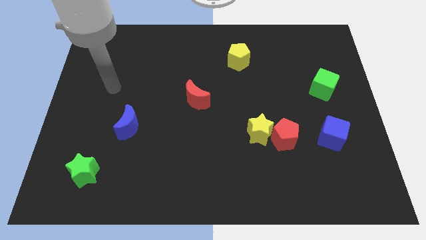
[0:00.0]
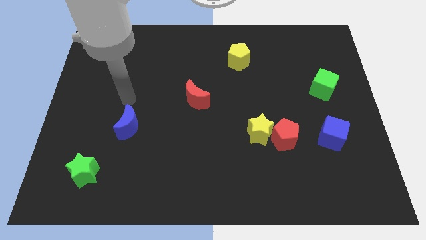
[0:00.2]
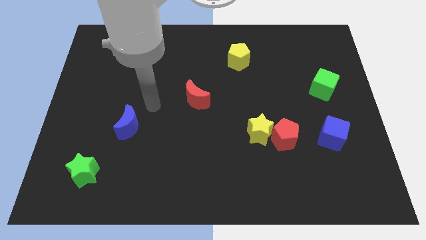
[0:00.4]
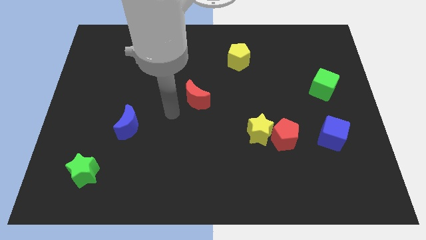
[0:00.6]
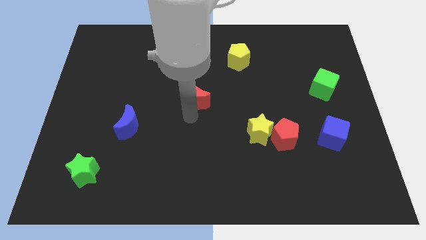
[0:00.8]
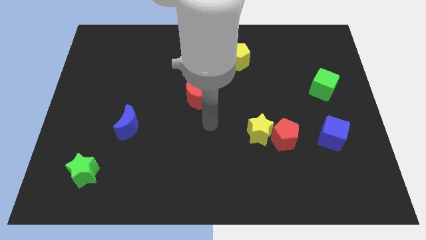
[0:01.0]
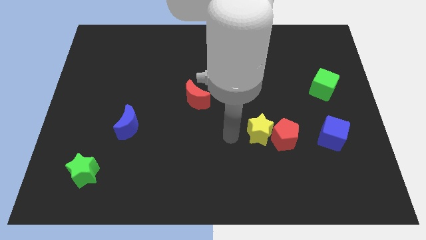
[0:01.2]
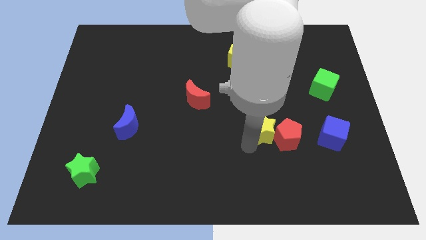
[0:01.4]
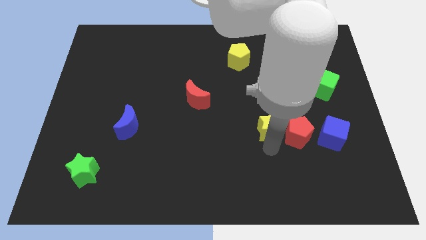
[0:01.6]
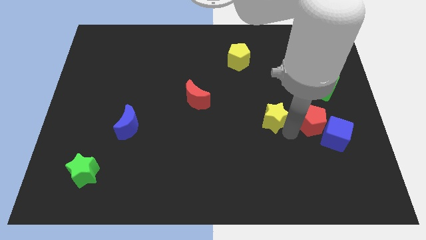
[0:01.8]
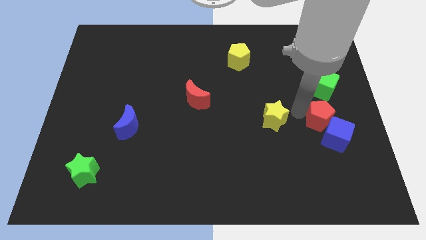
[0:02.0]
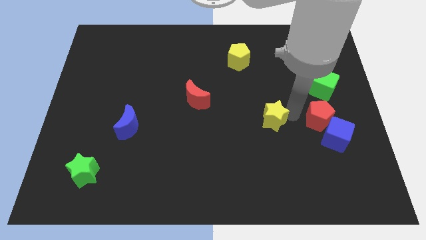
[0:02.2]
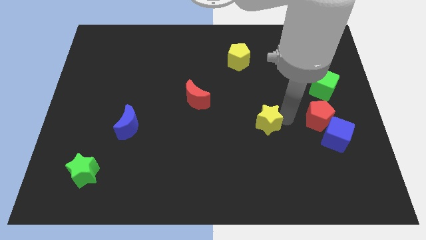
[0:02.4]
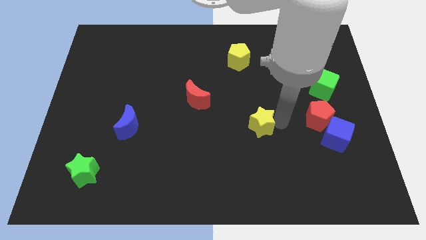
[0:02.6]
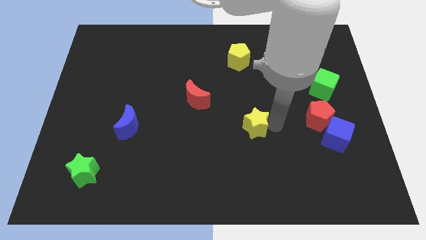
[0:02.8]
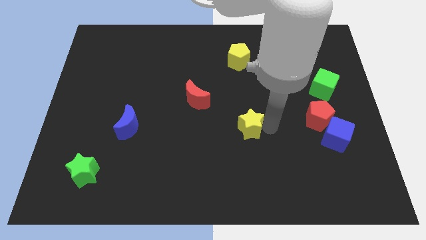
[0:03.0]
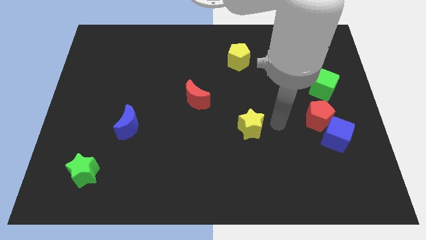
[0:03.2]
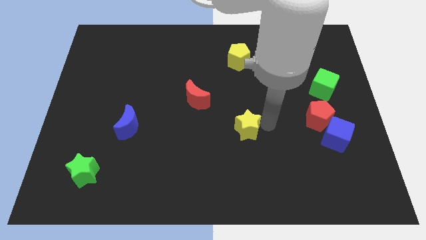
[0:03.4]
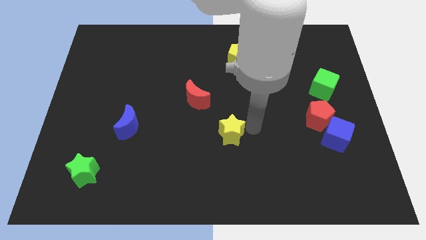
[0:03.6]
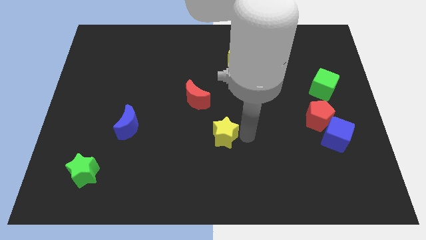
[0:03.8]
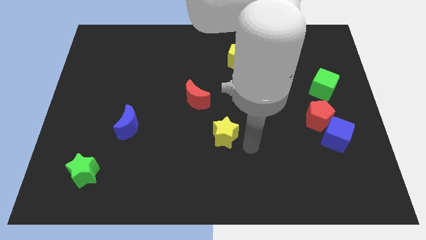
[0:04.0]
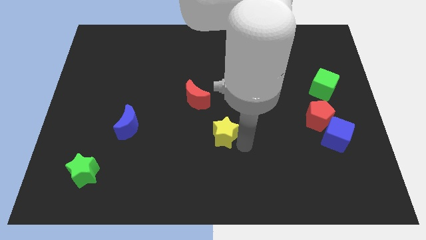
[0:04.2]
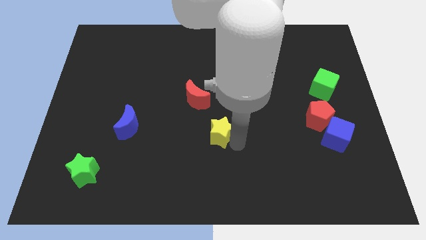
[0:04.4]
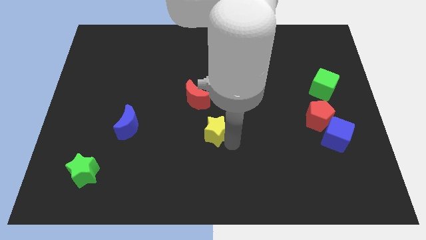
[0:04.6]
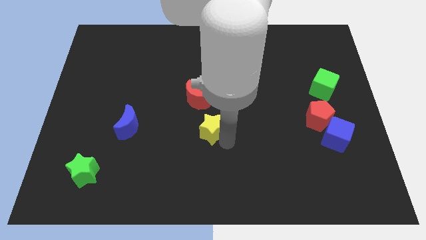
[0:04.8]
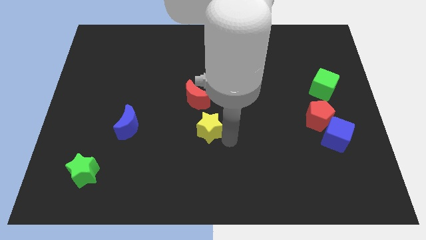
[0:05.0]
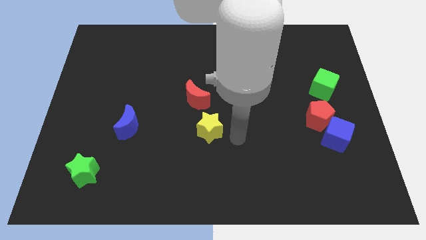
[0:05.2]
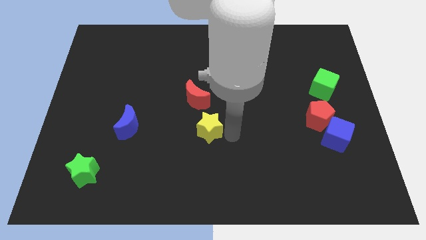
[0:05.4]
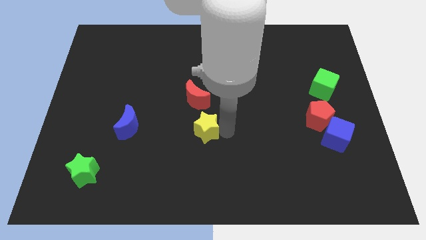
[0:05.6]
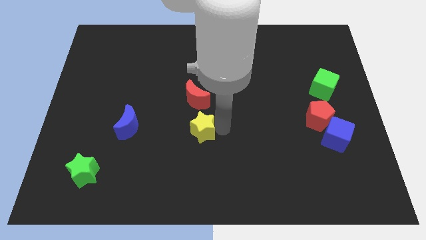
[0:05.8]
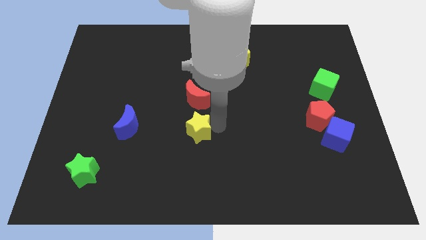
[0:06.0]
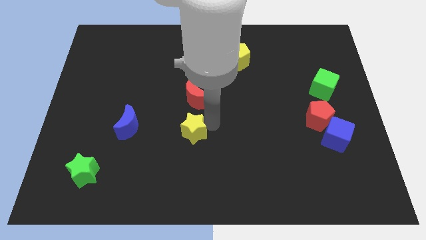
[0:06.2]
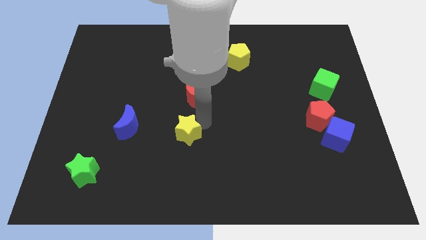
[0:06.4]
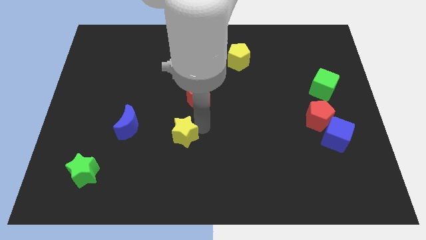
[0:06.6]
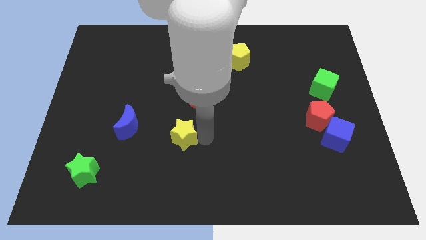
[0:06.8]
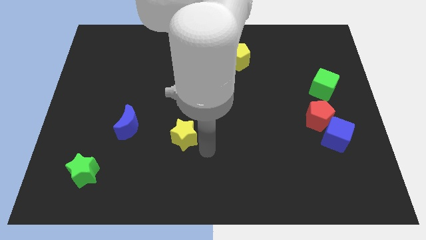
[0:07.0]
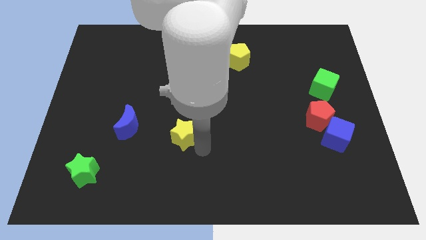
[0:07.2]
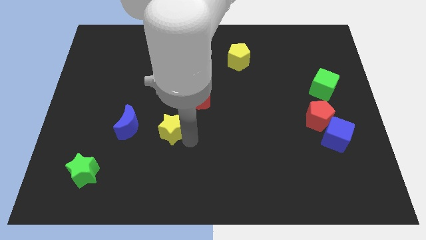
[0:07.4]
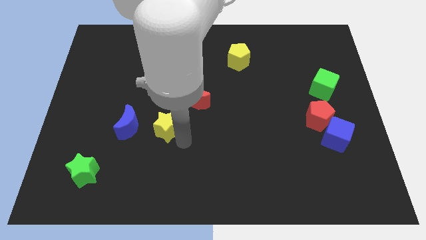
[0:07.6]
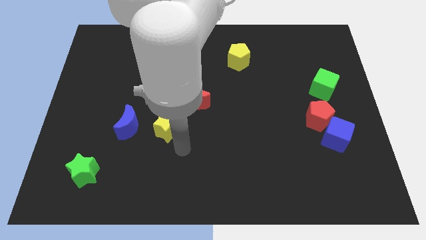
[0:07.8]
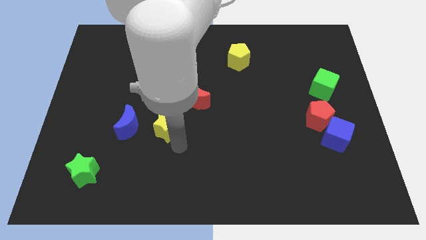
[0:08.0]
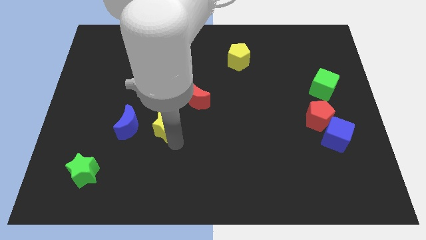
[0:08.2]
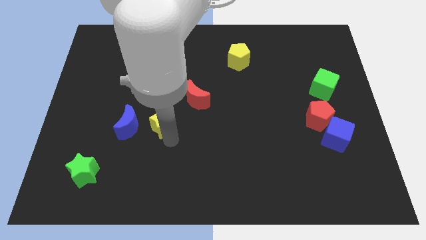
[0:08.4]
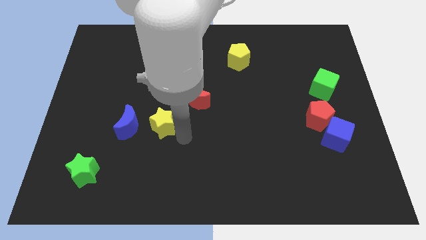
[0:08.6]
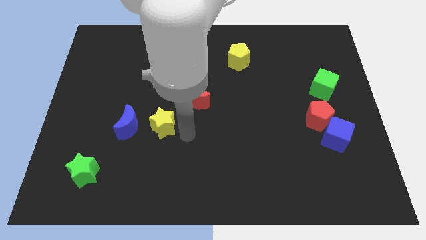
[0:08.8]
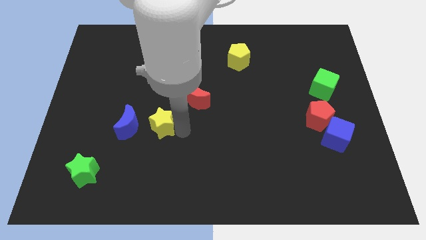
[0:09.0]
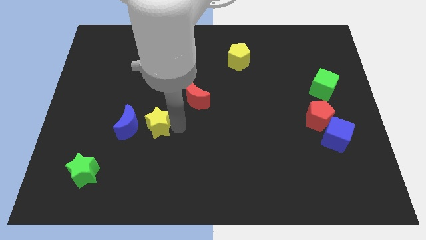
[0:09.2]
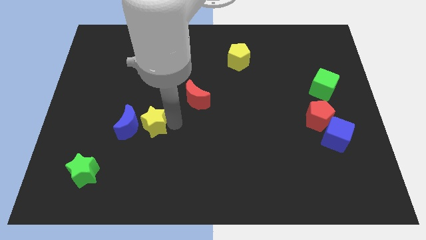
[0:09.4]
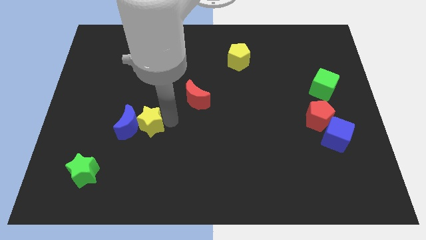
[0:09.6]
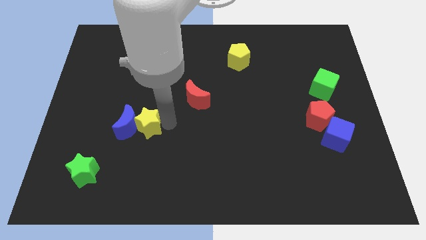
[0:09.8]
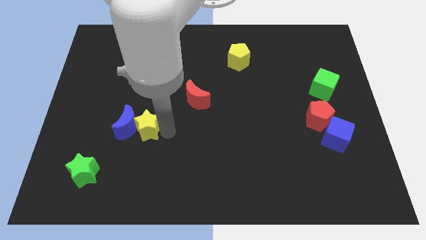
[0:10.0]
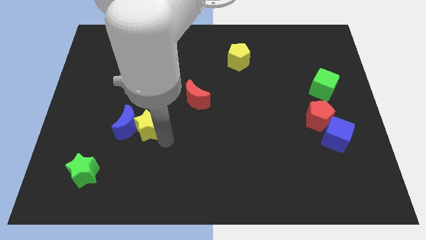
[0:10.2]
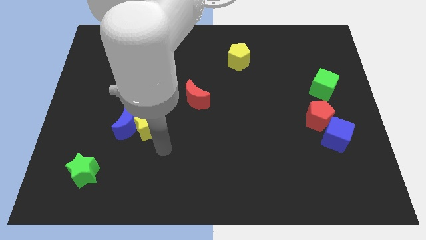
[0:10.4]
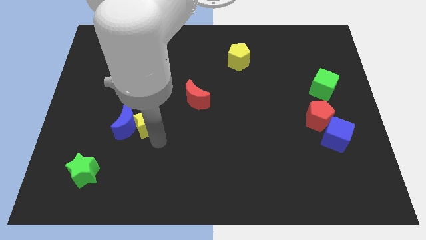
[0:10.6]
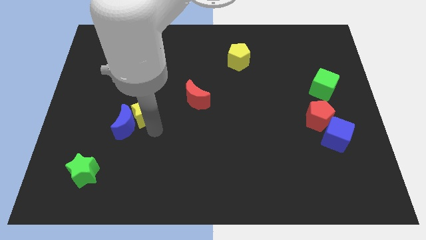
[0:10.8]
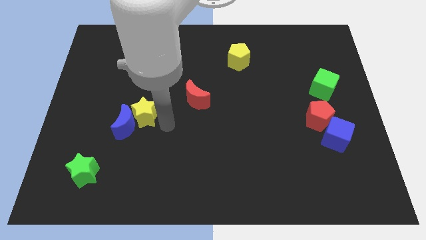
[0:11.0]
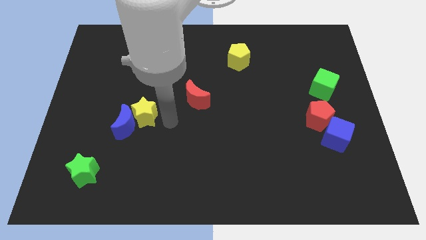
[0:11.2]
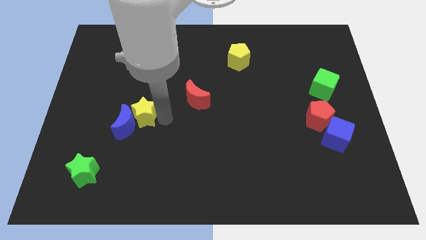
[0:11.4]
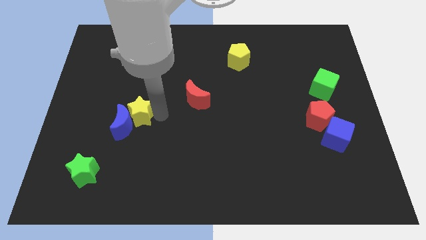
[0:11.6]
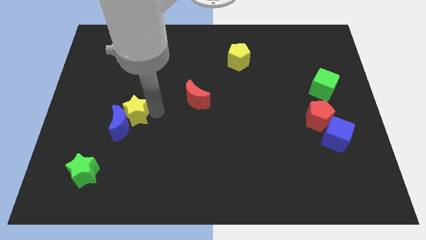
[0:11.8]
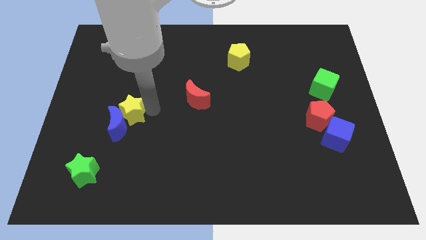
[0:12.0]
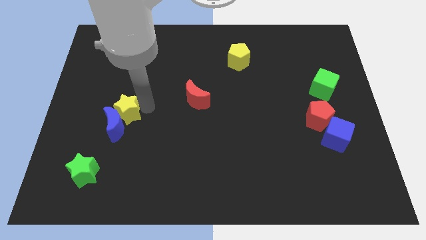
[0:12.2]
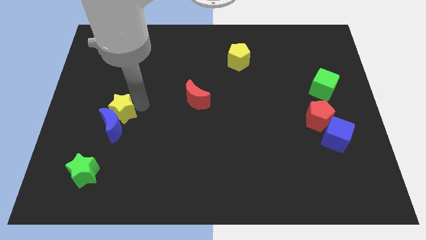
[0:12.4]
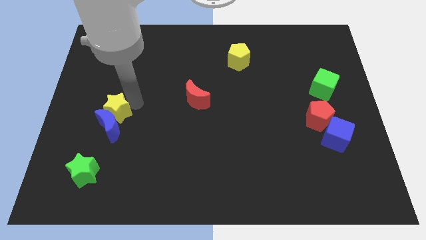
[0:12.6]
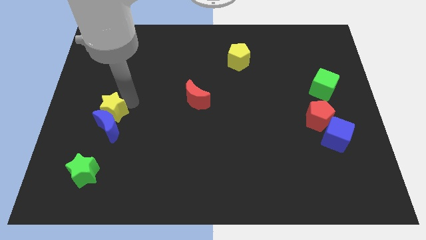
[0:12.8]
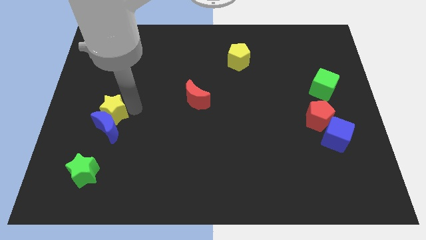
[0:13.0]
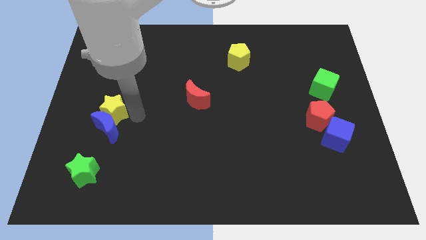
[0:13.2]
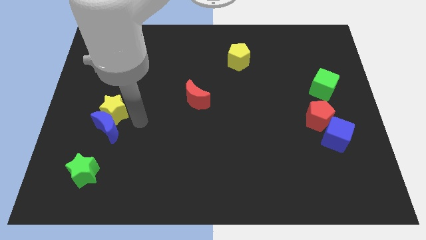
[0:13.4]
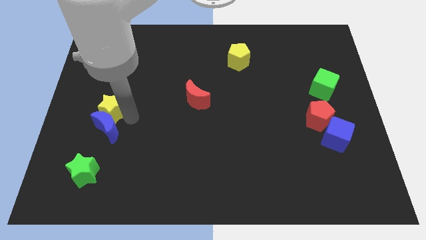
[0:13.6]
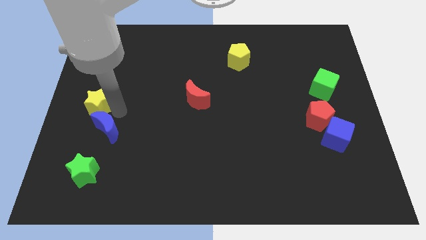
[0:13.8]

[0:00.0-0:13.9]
move the yellow star to the center left

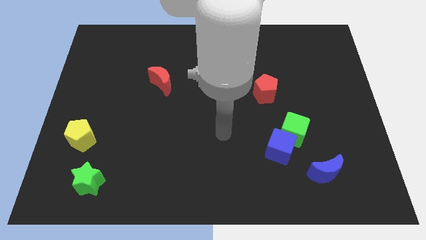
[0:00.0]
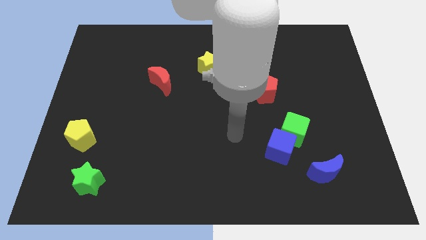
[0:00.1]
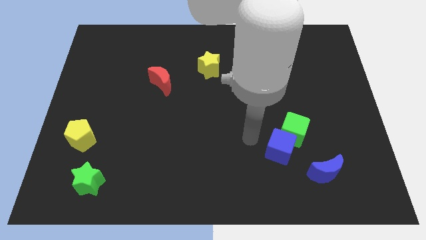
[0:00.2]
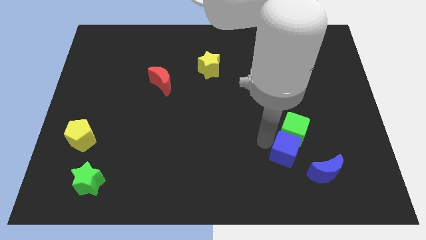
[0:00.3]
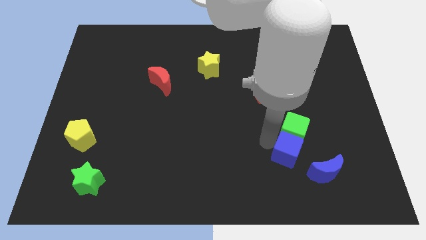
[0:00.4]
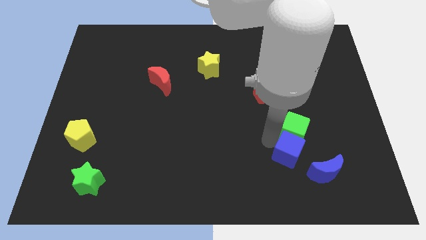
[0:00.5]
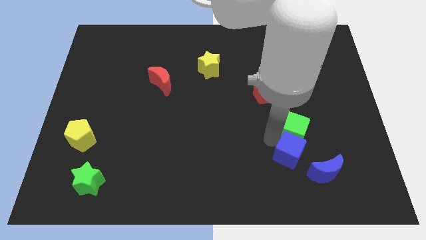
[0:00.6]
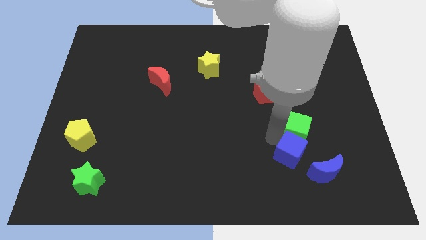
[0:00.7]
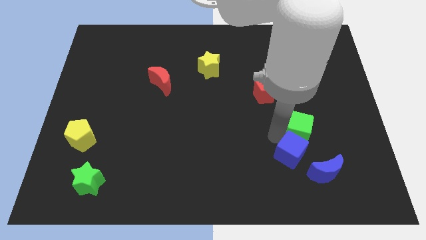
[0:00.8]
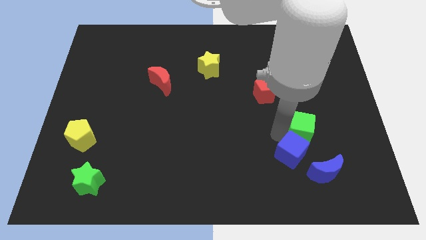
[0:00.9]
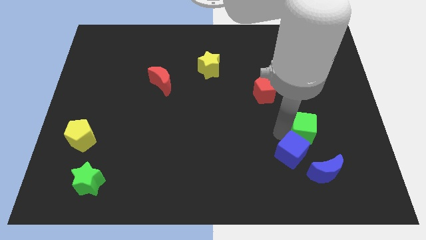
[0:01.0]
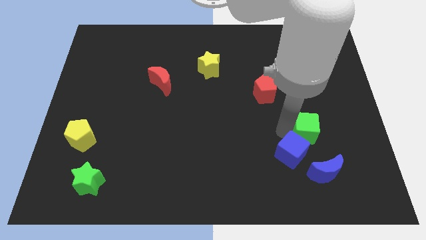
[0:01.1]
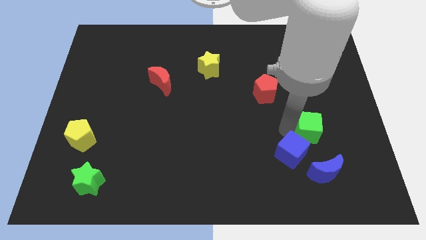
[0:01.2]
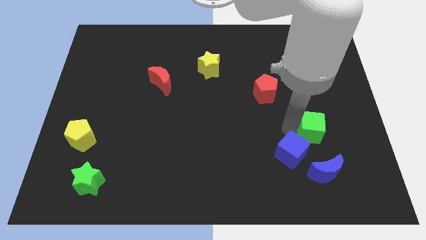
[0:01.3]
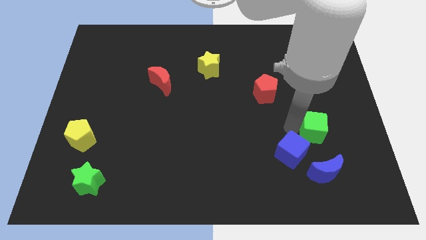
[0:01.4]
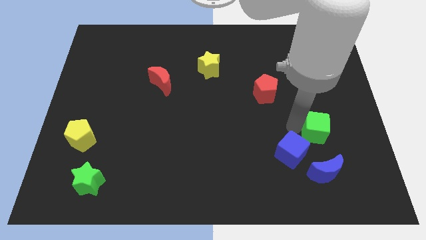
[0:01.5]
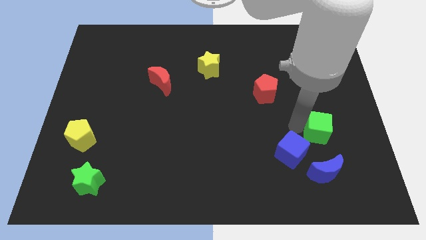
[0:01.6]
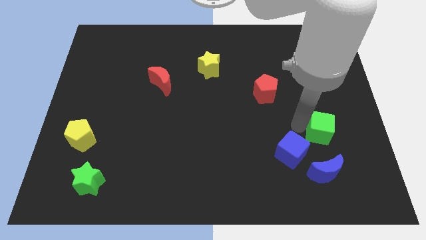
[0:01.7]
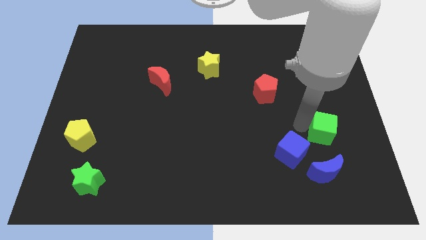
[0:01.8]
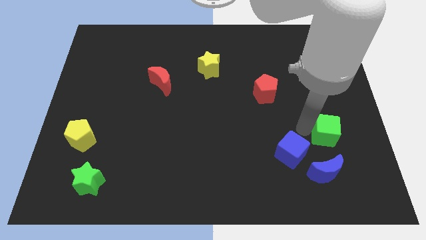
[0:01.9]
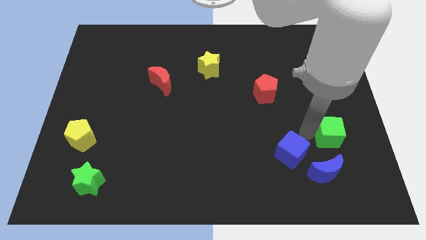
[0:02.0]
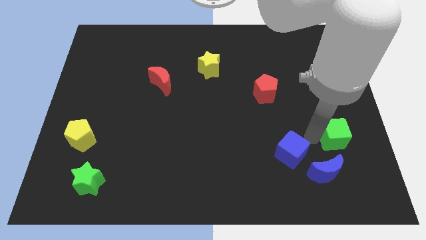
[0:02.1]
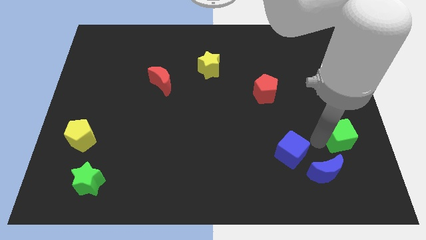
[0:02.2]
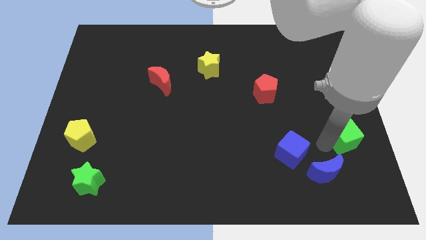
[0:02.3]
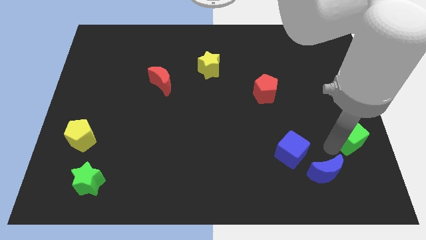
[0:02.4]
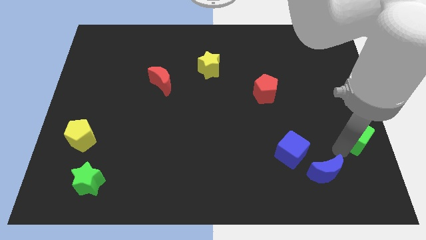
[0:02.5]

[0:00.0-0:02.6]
push the green cube to the center right
